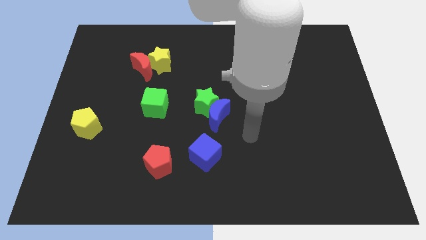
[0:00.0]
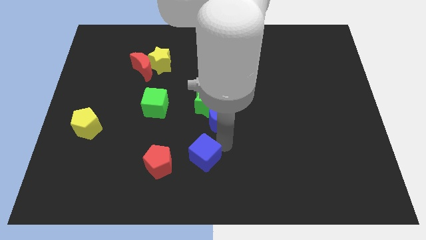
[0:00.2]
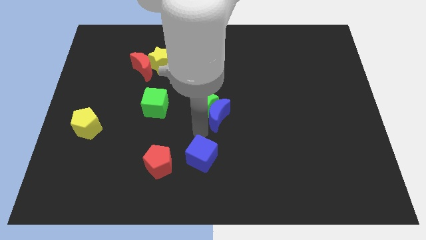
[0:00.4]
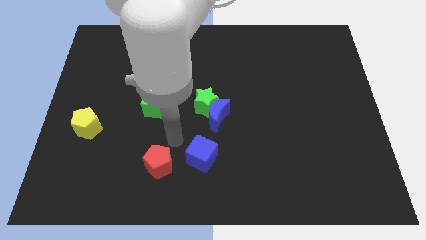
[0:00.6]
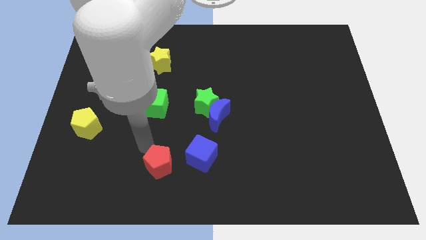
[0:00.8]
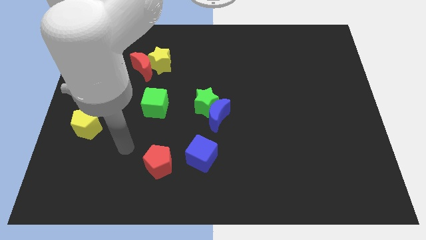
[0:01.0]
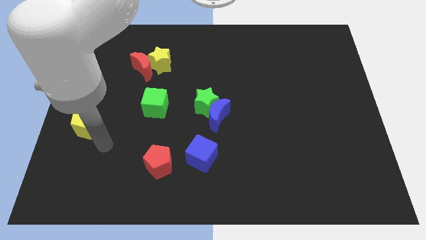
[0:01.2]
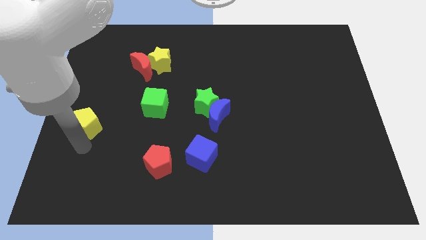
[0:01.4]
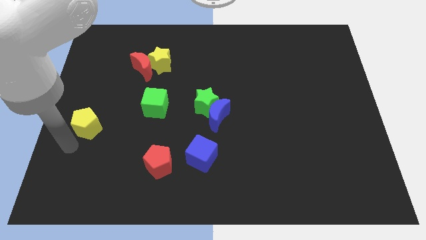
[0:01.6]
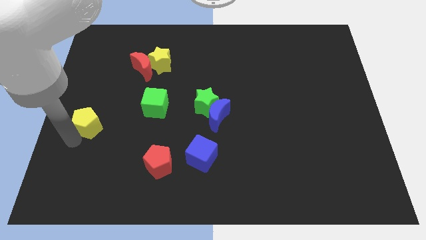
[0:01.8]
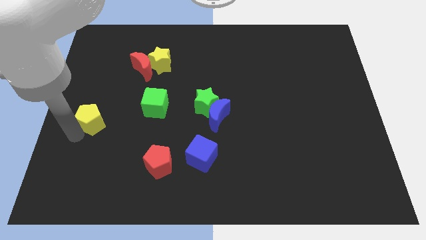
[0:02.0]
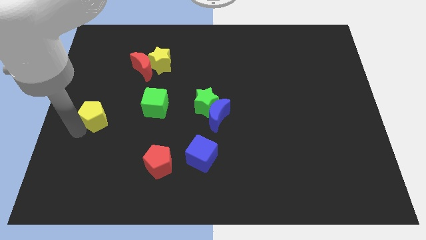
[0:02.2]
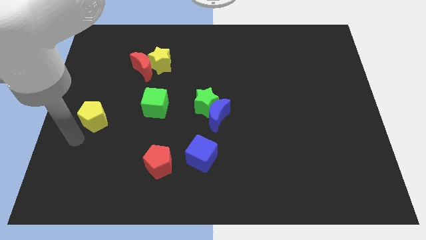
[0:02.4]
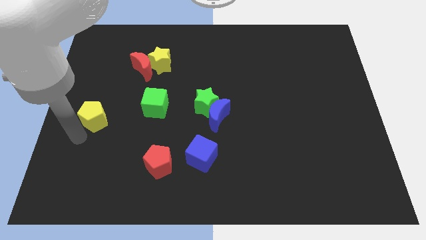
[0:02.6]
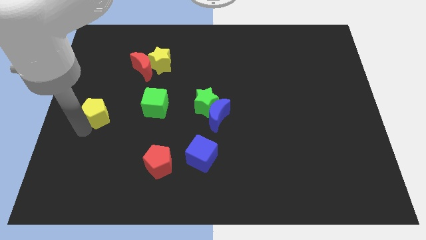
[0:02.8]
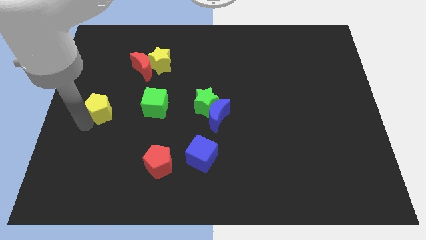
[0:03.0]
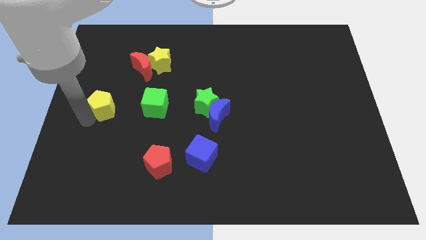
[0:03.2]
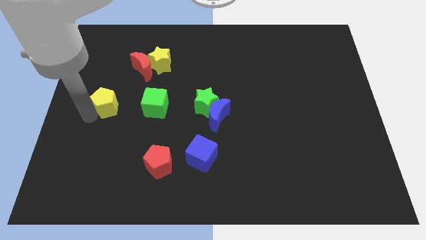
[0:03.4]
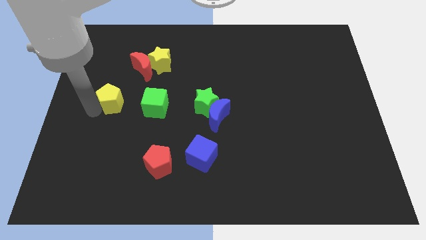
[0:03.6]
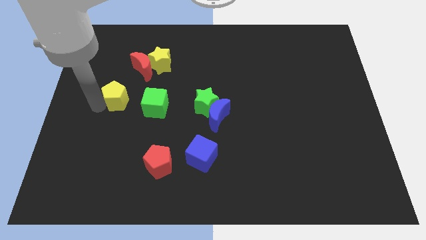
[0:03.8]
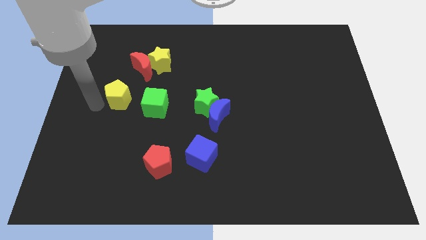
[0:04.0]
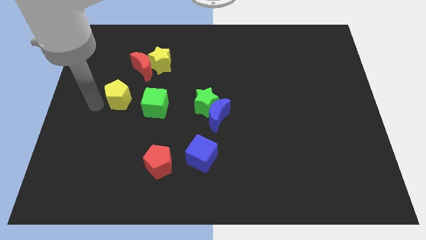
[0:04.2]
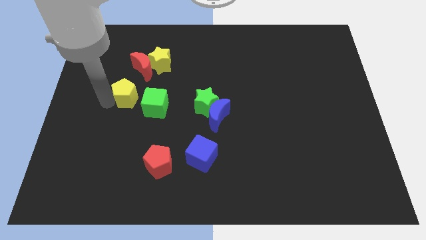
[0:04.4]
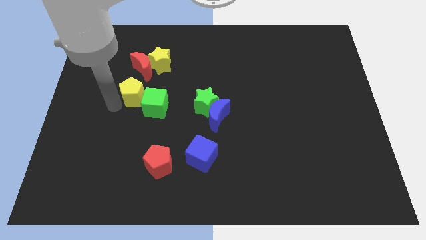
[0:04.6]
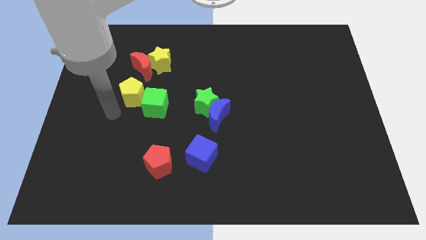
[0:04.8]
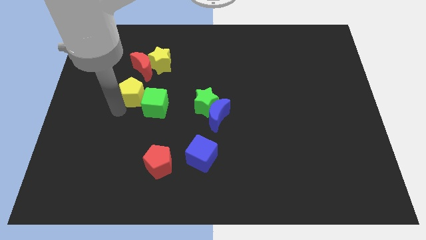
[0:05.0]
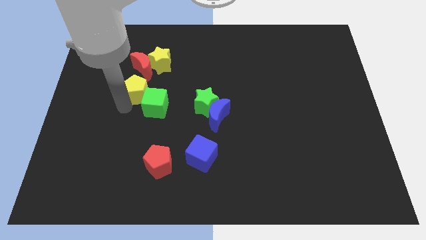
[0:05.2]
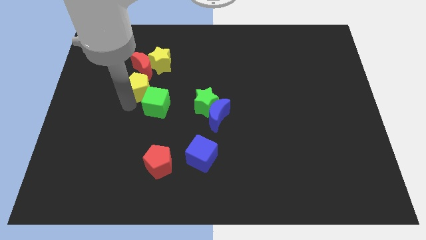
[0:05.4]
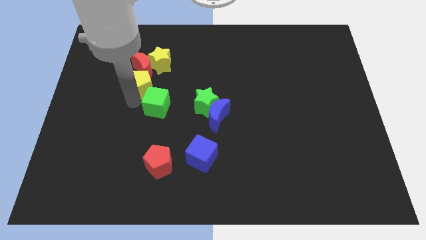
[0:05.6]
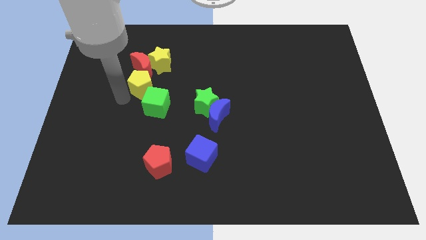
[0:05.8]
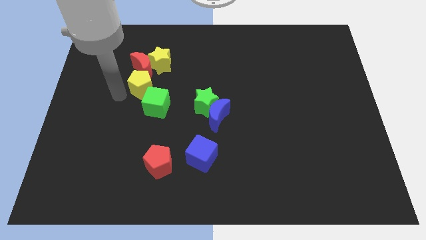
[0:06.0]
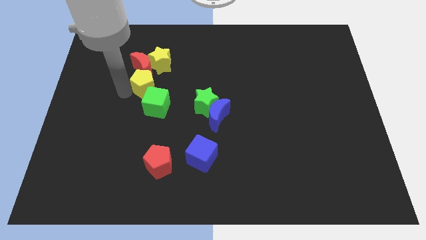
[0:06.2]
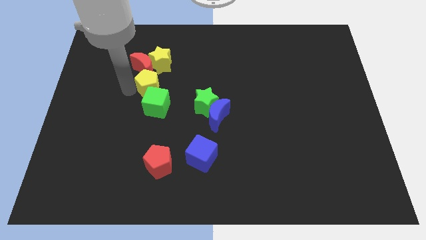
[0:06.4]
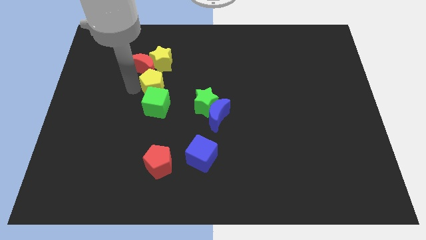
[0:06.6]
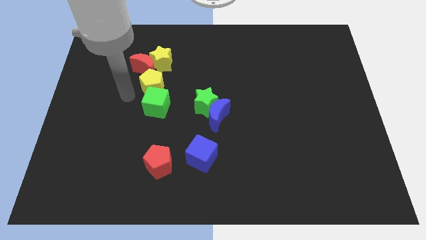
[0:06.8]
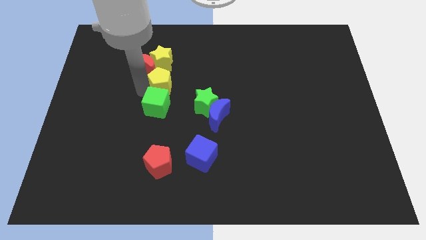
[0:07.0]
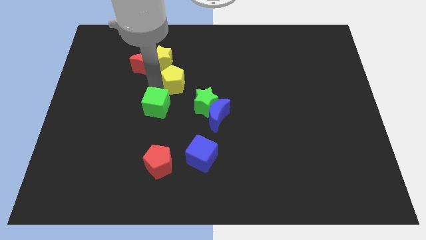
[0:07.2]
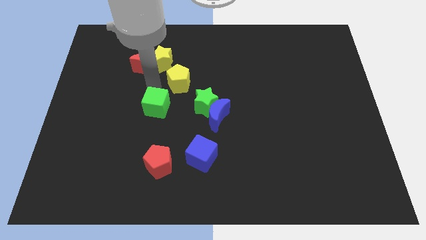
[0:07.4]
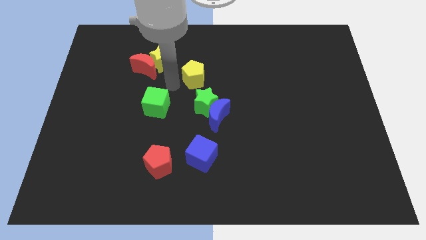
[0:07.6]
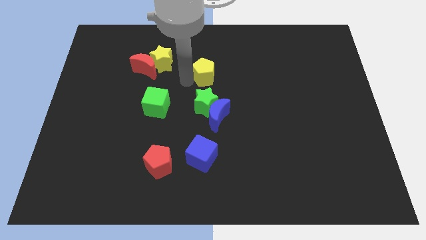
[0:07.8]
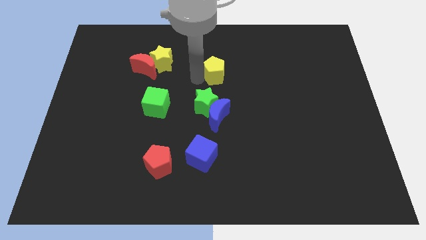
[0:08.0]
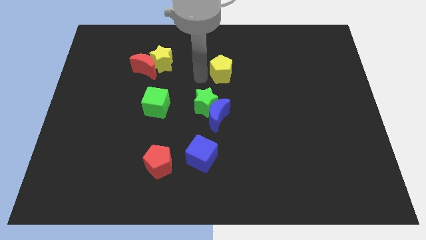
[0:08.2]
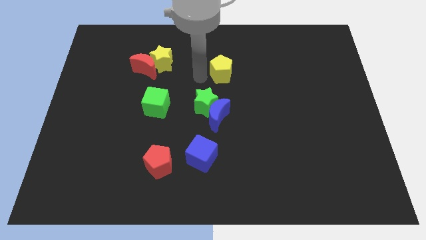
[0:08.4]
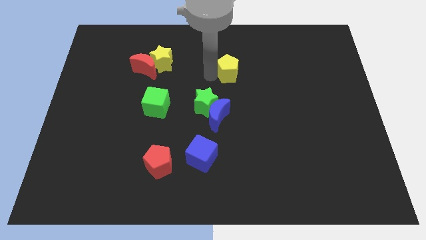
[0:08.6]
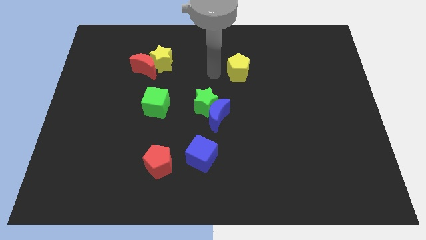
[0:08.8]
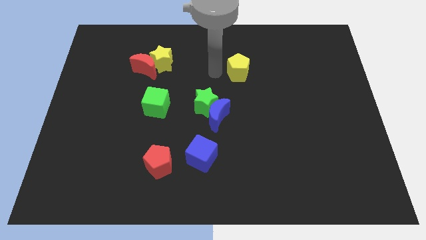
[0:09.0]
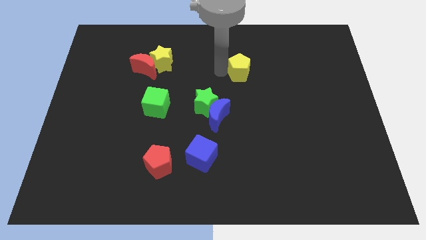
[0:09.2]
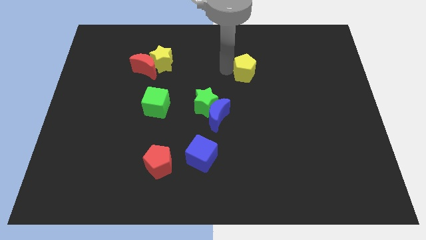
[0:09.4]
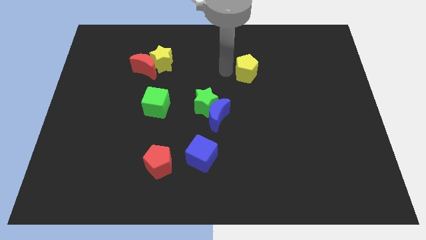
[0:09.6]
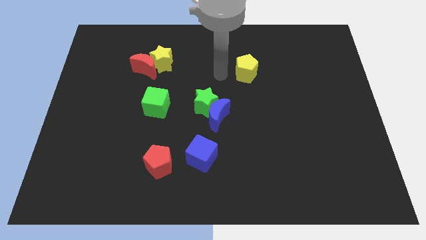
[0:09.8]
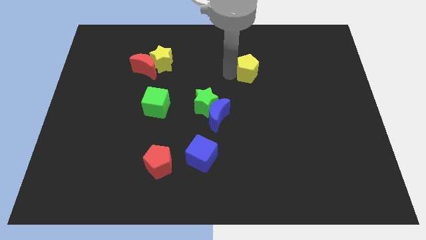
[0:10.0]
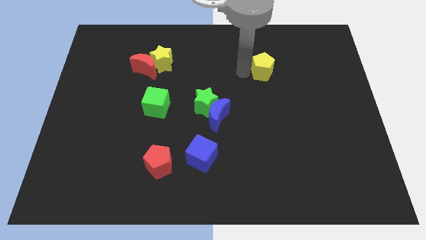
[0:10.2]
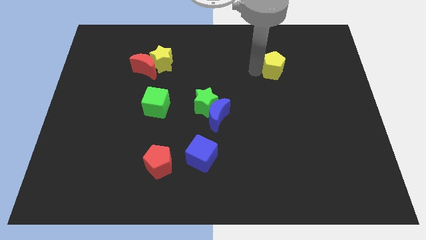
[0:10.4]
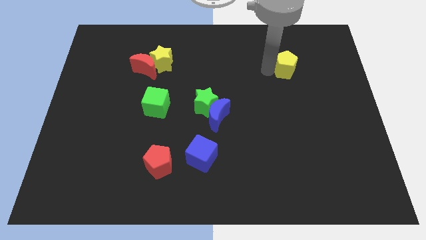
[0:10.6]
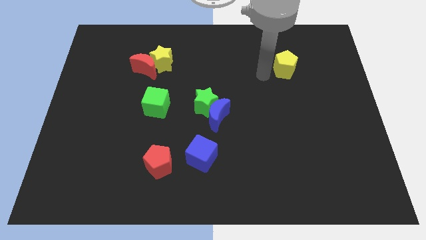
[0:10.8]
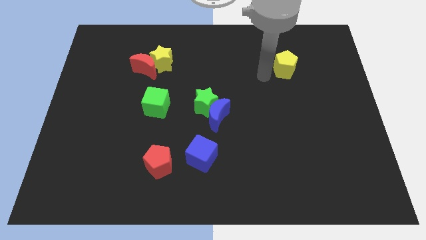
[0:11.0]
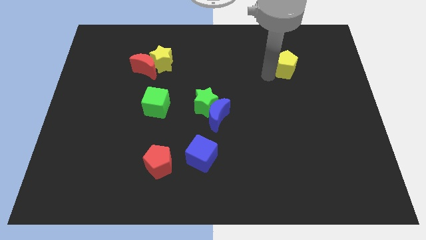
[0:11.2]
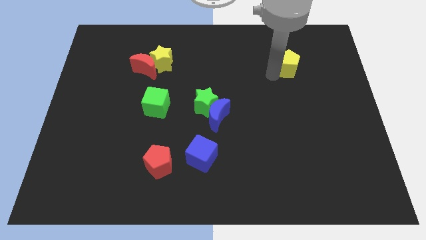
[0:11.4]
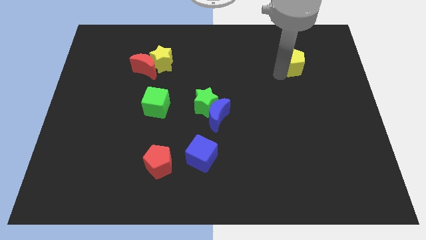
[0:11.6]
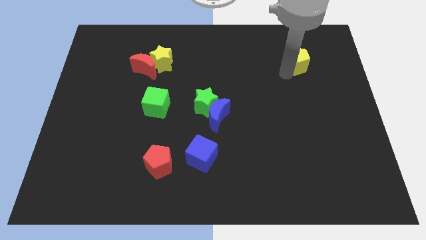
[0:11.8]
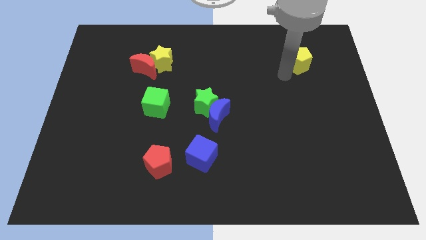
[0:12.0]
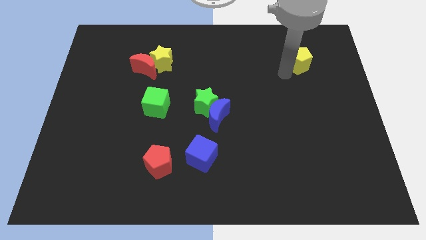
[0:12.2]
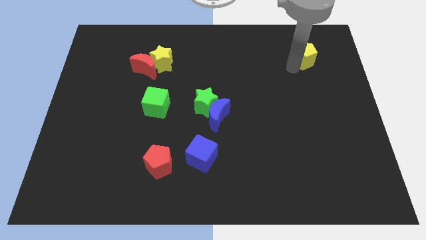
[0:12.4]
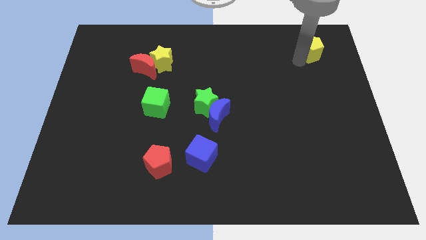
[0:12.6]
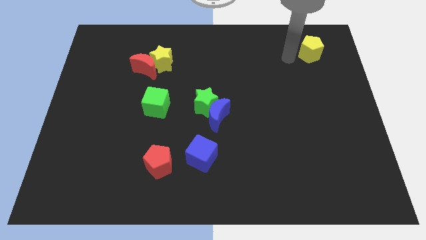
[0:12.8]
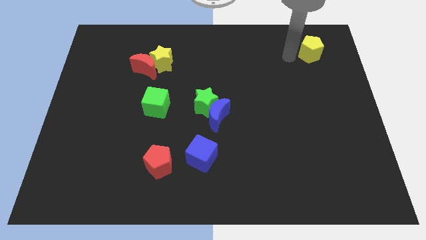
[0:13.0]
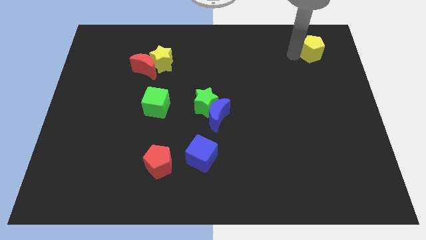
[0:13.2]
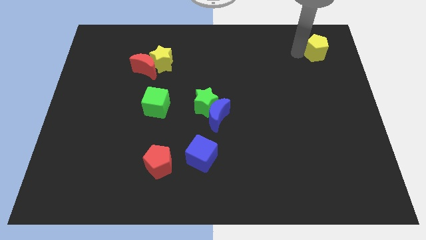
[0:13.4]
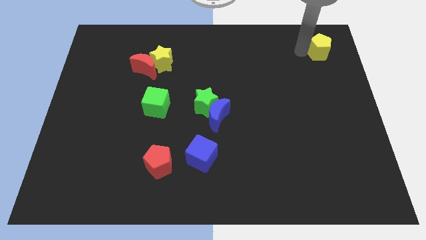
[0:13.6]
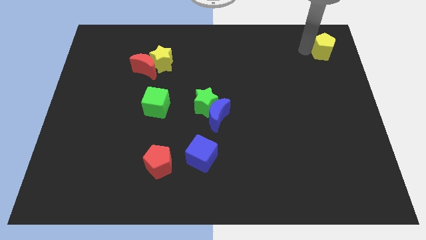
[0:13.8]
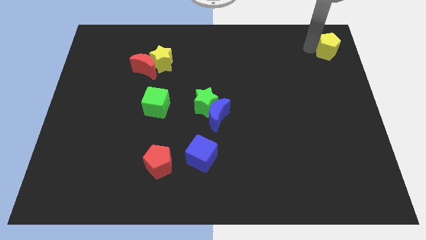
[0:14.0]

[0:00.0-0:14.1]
push the yellow pentagon to the upper right corner

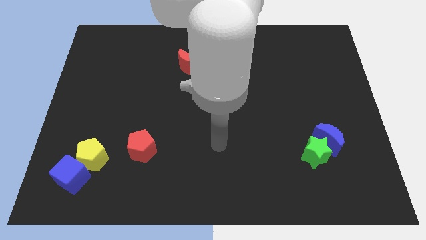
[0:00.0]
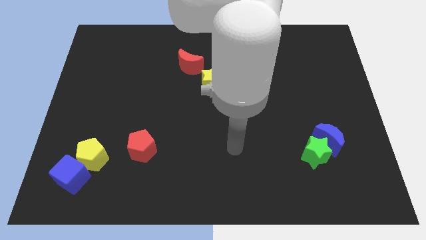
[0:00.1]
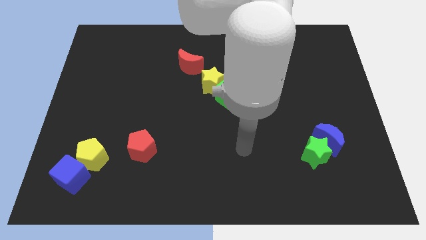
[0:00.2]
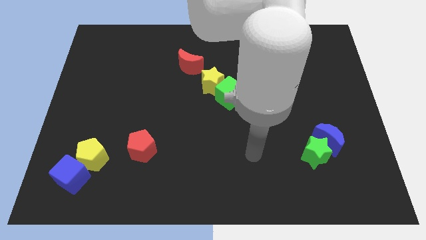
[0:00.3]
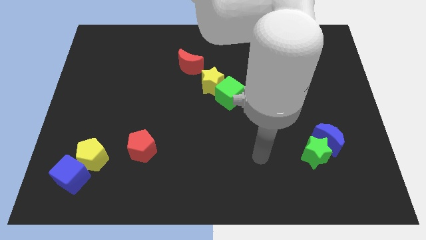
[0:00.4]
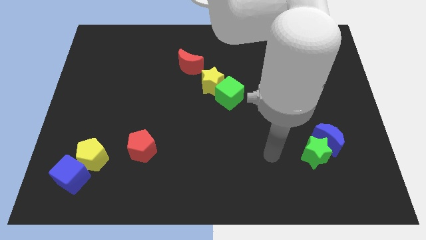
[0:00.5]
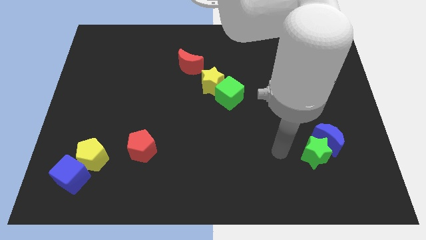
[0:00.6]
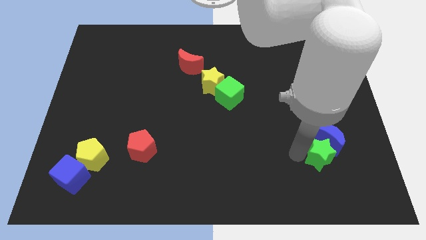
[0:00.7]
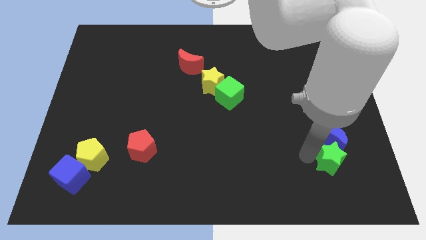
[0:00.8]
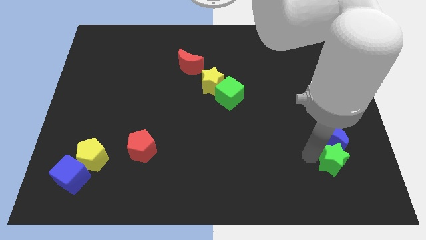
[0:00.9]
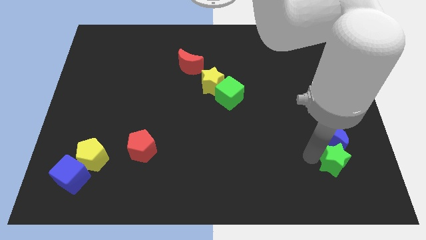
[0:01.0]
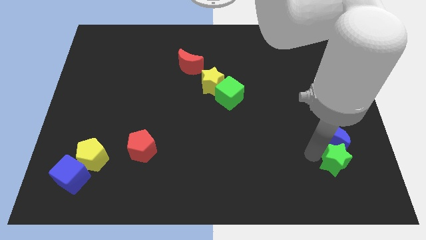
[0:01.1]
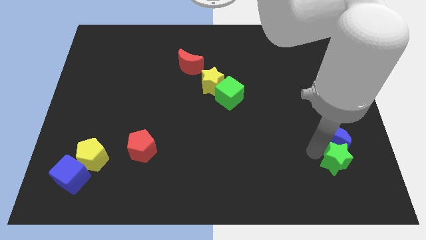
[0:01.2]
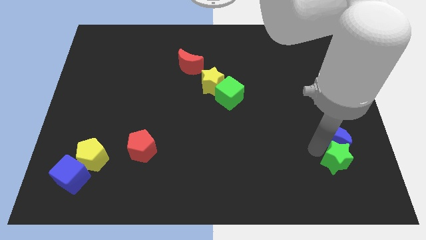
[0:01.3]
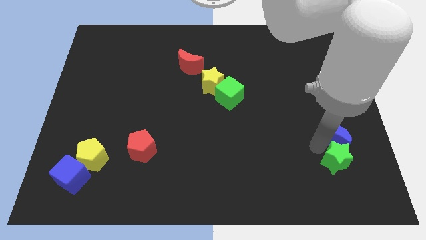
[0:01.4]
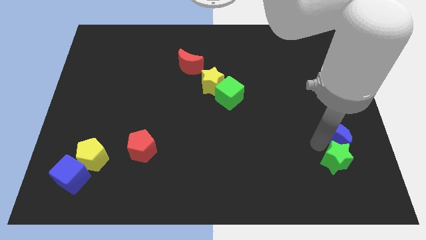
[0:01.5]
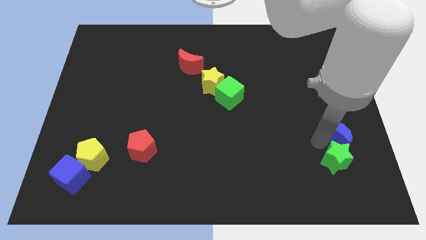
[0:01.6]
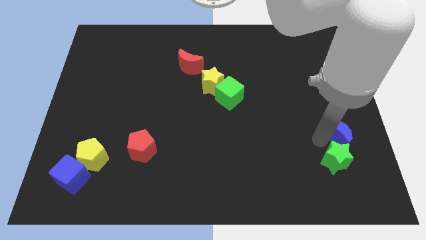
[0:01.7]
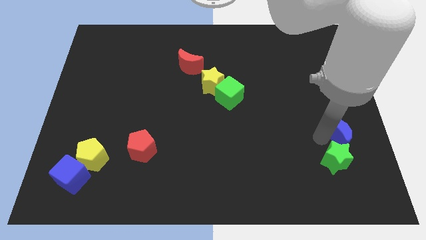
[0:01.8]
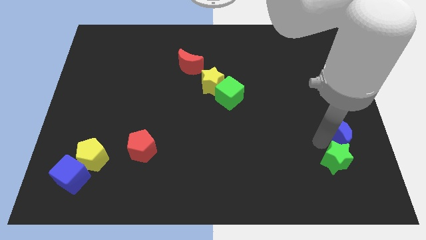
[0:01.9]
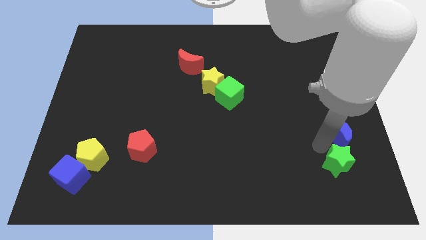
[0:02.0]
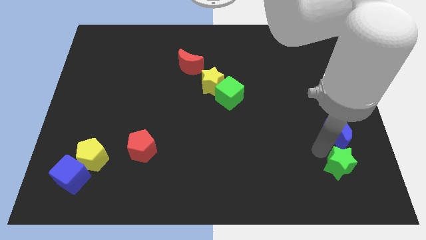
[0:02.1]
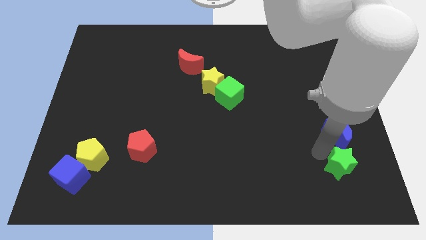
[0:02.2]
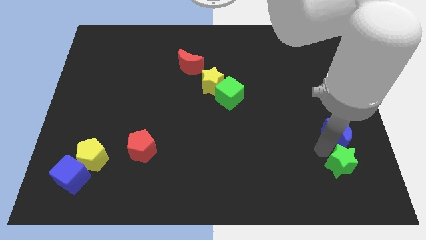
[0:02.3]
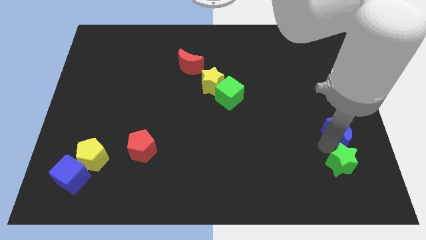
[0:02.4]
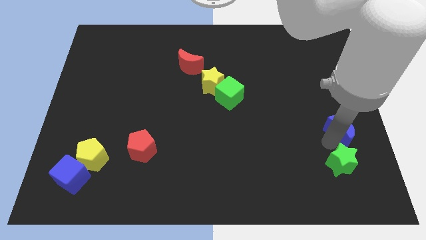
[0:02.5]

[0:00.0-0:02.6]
move the blue moon to the center right
